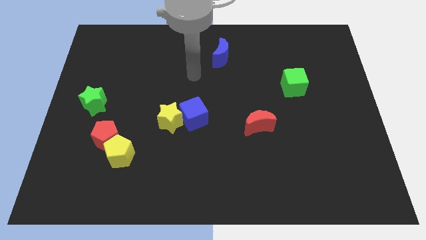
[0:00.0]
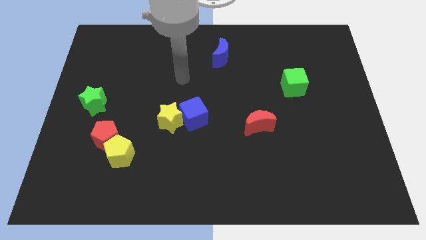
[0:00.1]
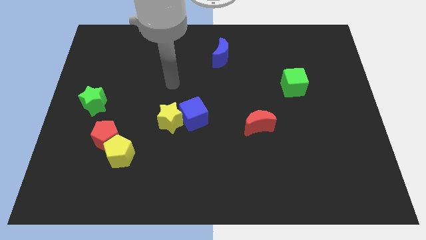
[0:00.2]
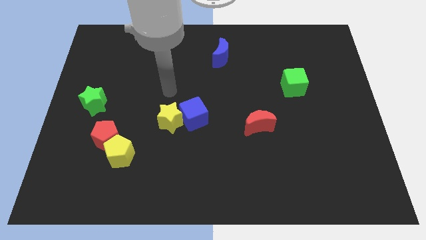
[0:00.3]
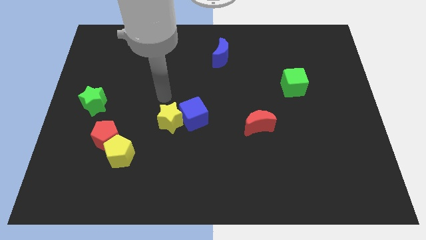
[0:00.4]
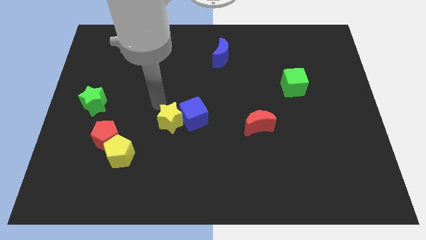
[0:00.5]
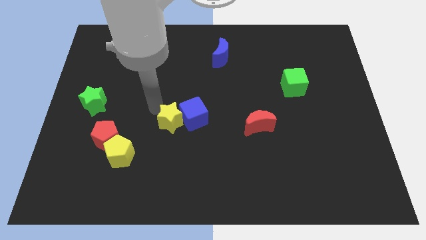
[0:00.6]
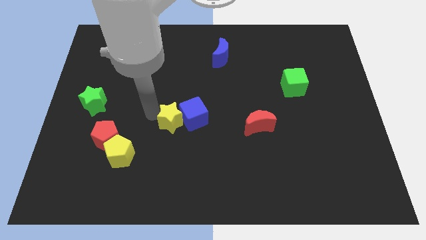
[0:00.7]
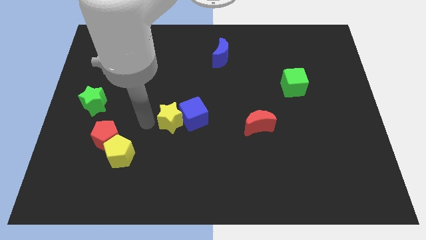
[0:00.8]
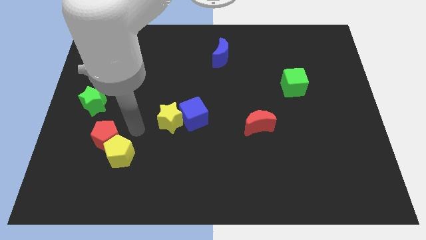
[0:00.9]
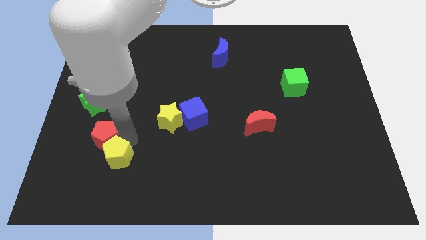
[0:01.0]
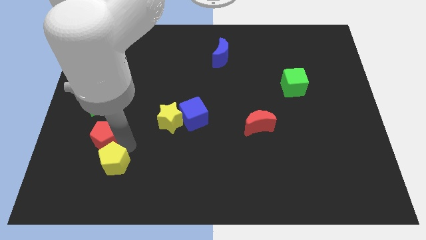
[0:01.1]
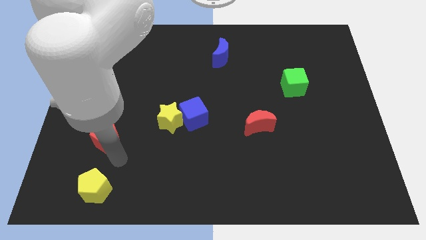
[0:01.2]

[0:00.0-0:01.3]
pull the red pentagon apart from the yellow pentagon

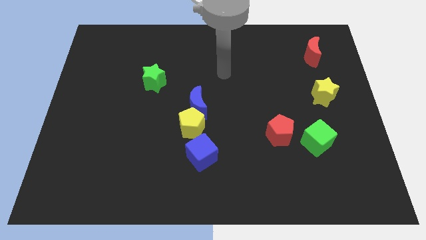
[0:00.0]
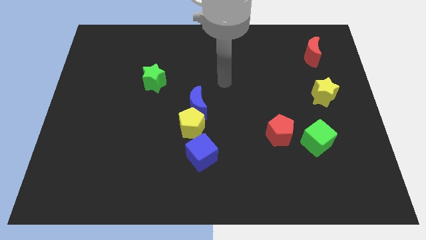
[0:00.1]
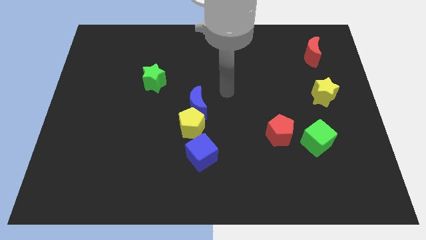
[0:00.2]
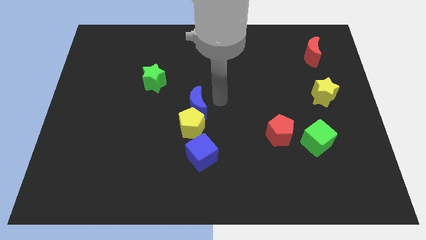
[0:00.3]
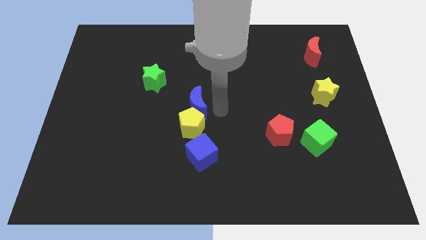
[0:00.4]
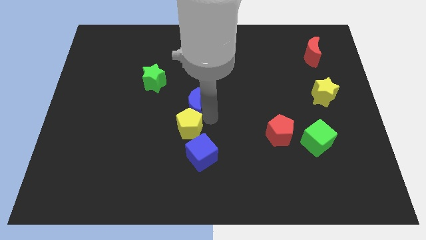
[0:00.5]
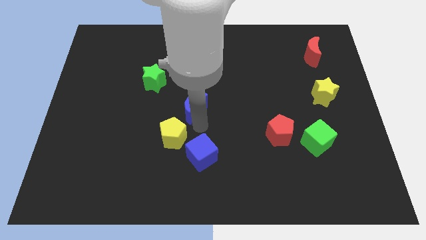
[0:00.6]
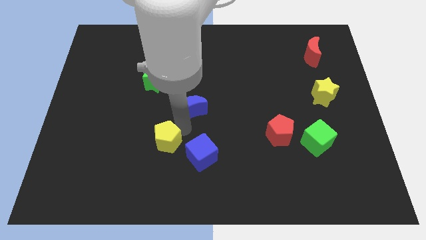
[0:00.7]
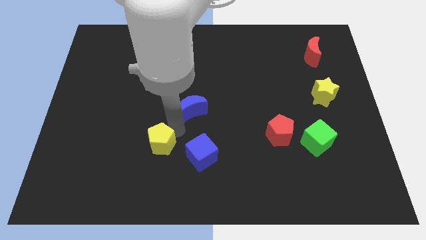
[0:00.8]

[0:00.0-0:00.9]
pull the blue moon apart from the yellow pentagon

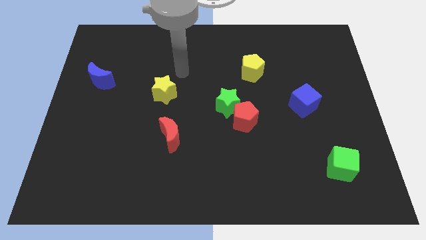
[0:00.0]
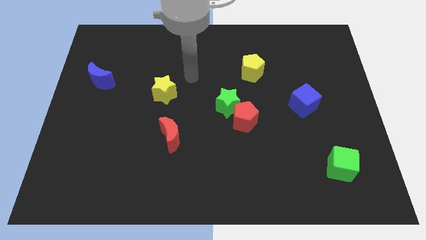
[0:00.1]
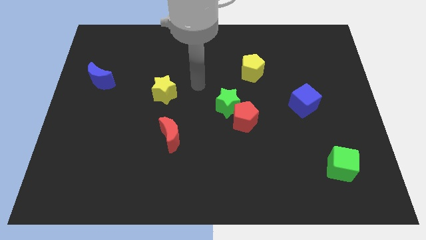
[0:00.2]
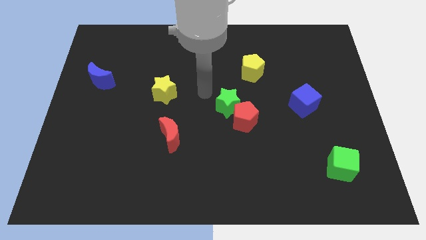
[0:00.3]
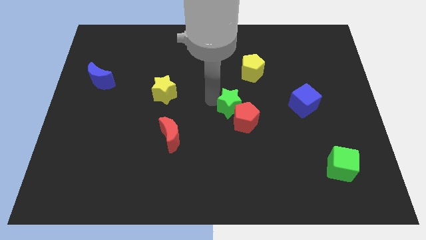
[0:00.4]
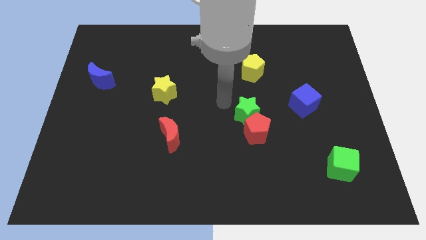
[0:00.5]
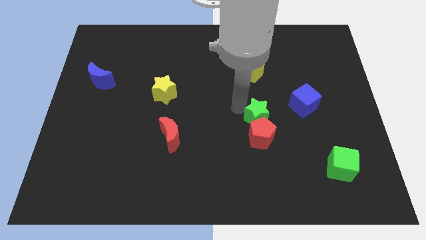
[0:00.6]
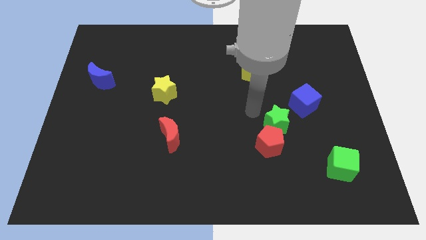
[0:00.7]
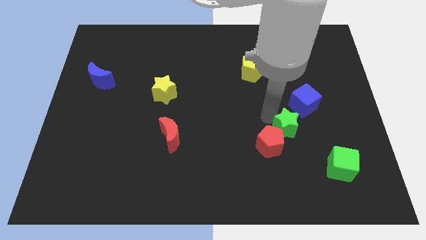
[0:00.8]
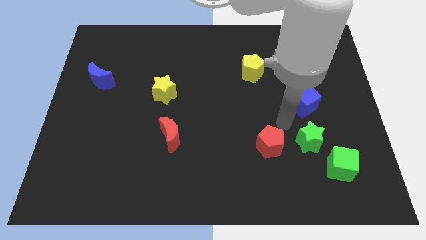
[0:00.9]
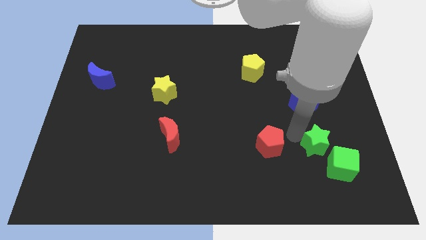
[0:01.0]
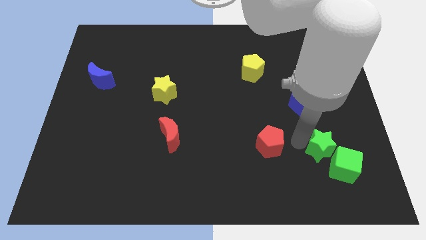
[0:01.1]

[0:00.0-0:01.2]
separate the red pentagon from the green star

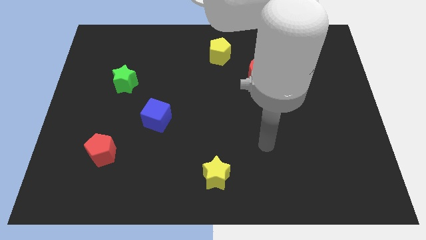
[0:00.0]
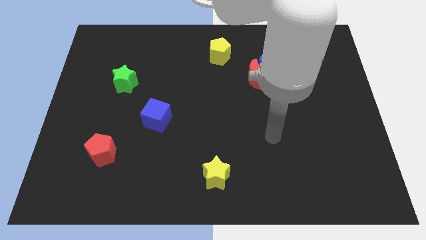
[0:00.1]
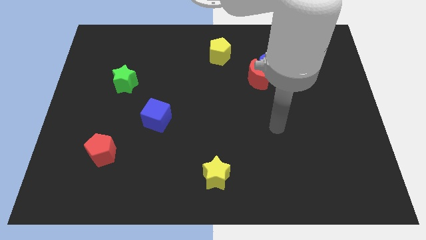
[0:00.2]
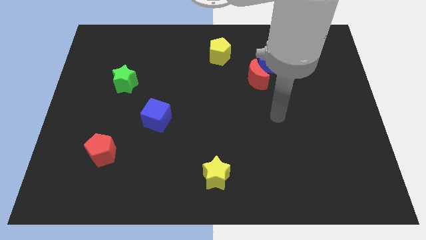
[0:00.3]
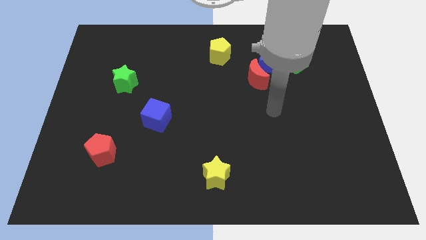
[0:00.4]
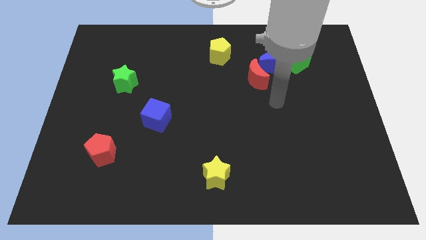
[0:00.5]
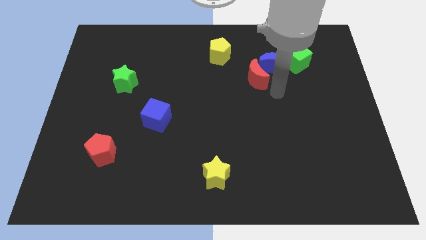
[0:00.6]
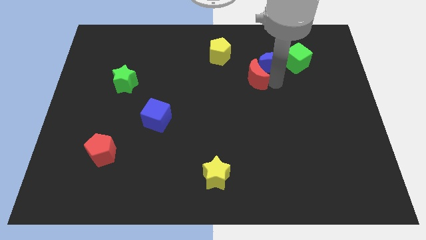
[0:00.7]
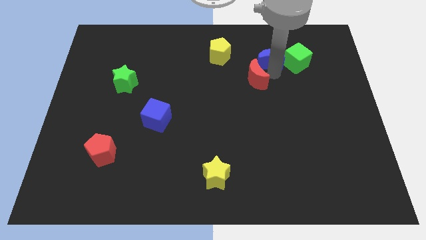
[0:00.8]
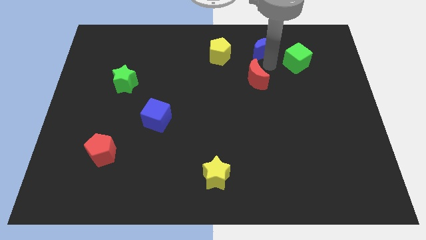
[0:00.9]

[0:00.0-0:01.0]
separate the red moon from the blue moon
